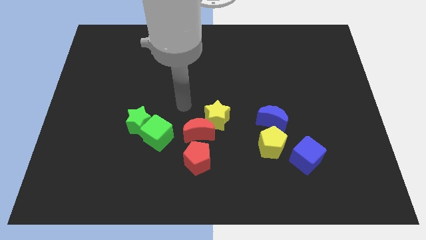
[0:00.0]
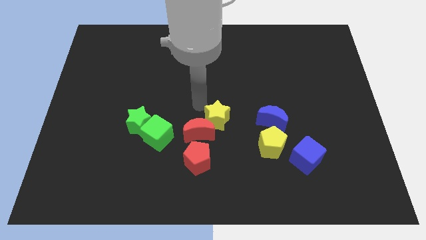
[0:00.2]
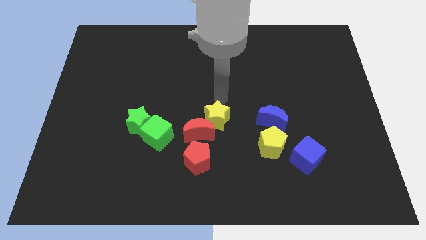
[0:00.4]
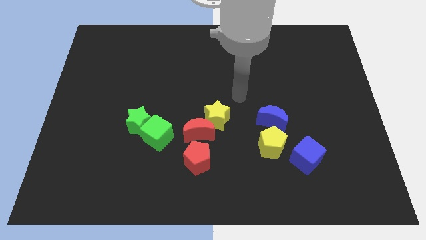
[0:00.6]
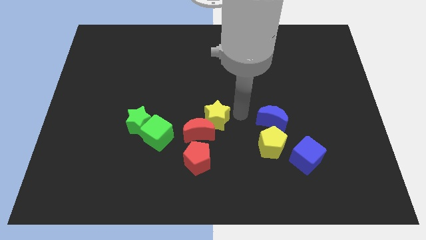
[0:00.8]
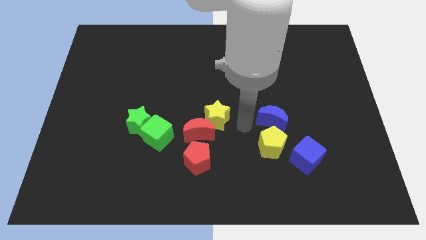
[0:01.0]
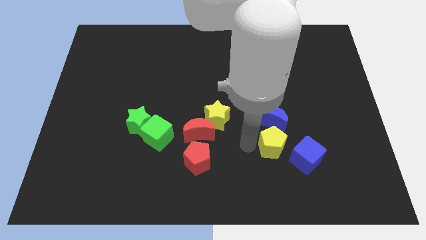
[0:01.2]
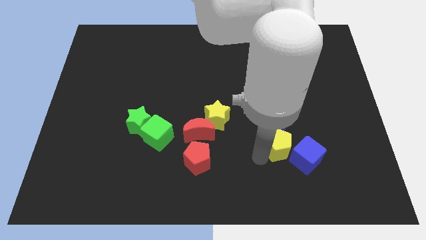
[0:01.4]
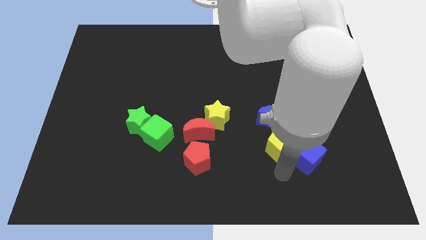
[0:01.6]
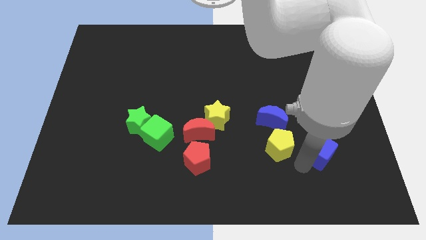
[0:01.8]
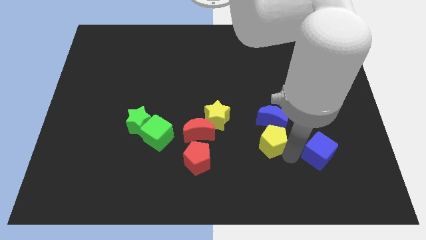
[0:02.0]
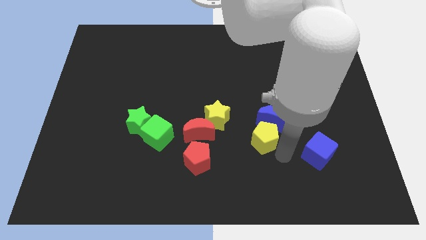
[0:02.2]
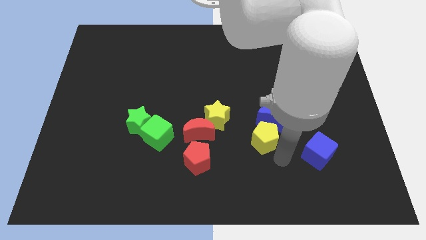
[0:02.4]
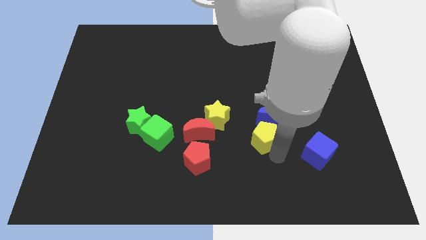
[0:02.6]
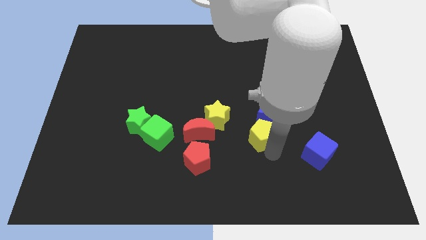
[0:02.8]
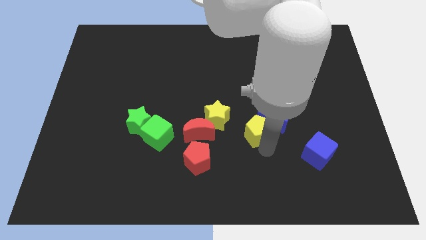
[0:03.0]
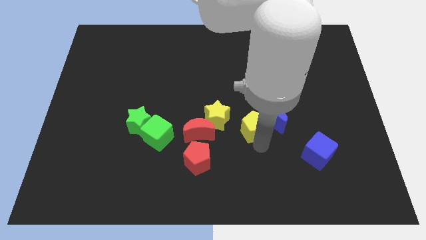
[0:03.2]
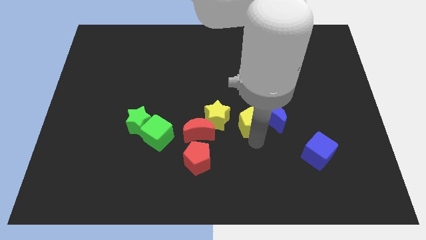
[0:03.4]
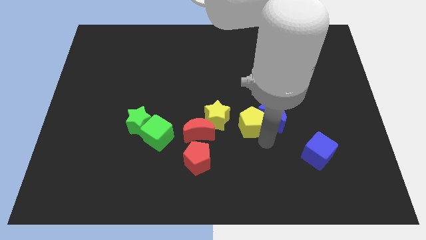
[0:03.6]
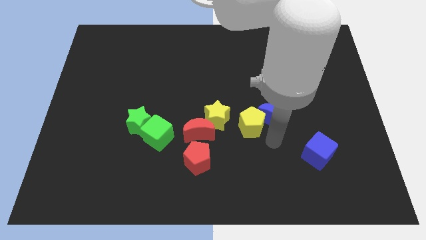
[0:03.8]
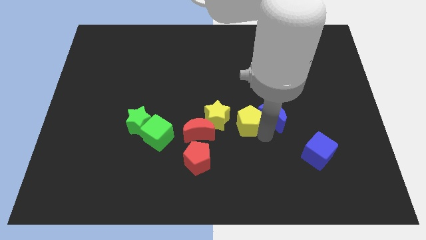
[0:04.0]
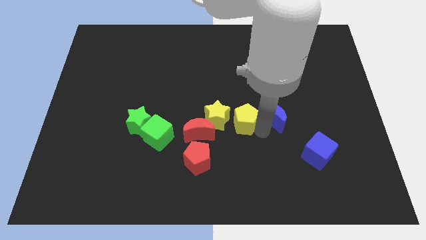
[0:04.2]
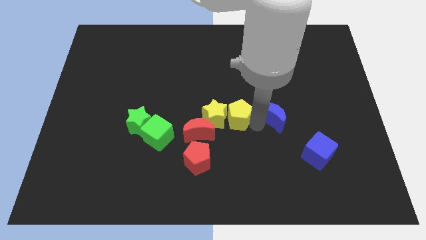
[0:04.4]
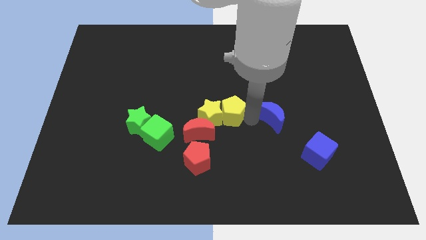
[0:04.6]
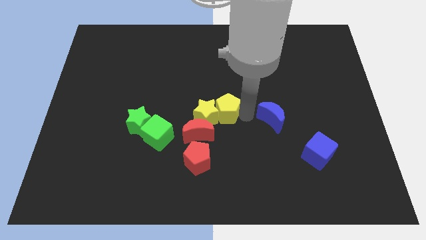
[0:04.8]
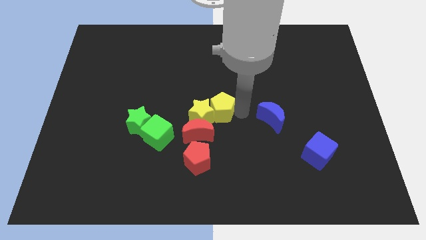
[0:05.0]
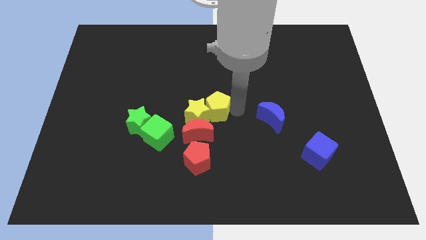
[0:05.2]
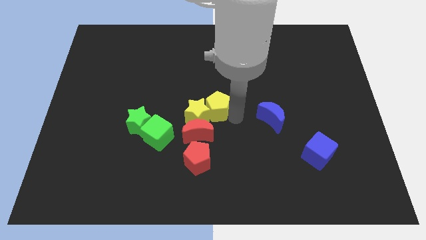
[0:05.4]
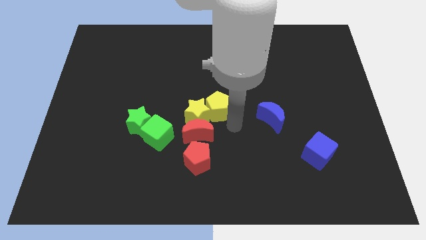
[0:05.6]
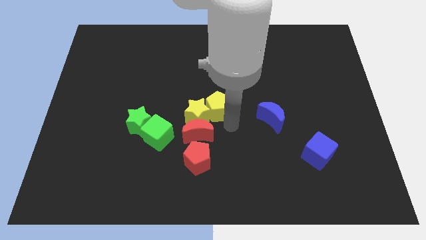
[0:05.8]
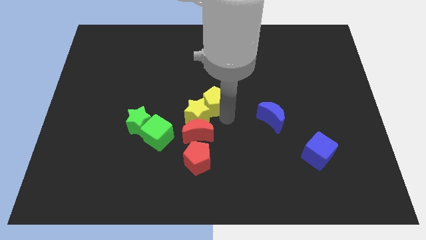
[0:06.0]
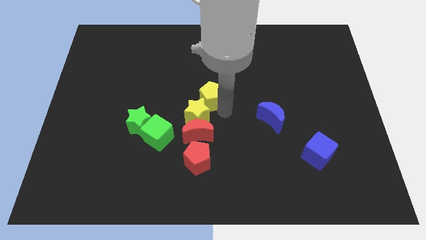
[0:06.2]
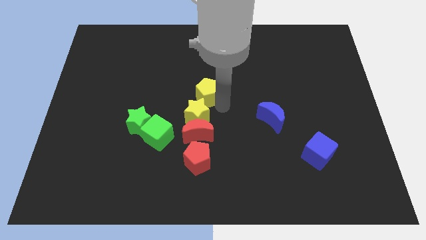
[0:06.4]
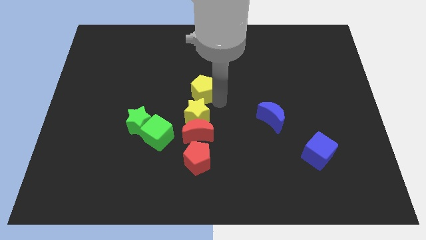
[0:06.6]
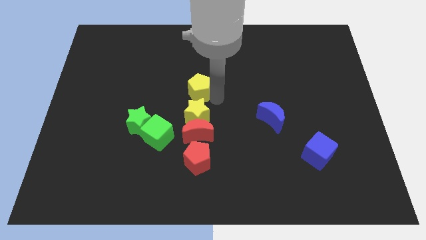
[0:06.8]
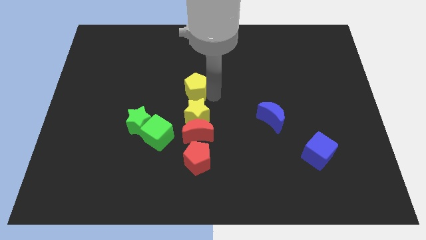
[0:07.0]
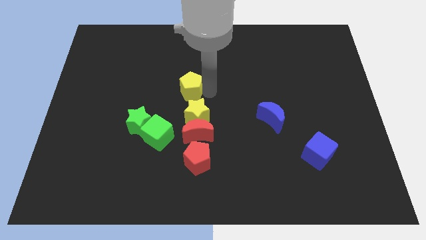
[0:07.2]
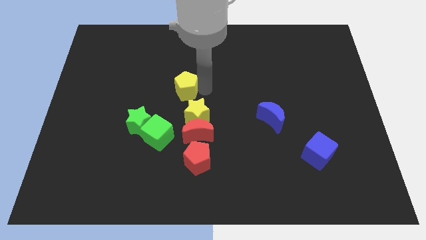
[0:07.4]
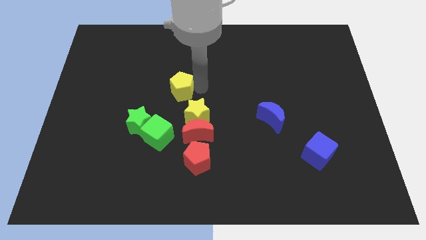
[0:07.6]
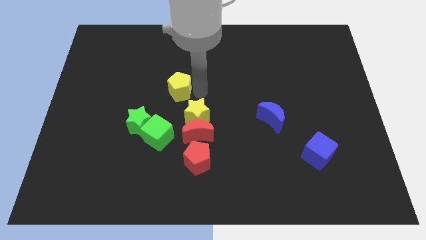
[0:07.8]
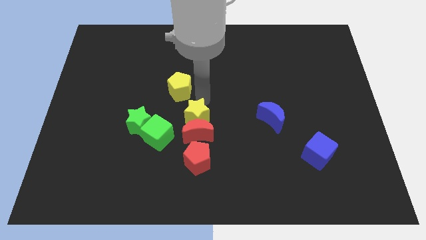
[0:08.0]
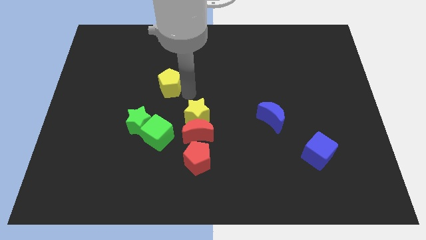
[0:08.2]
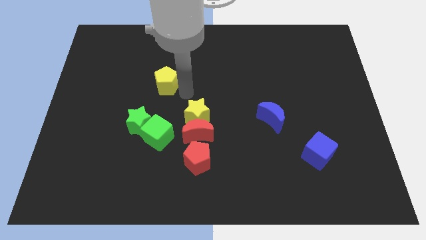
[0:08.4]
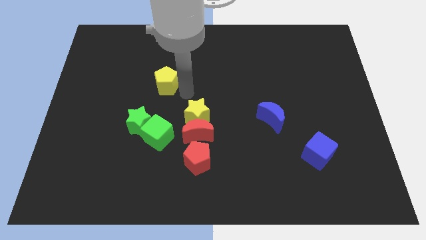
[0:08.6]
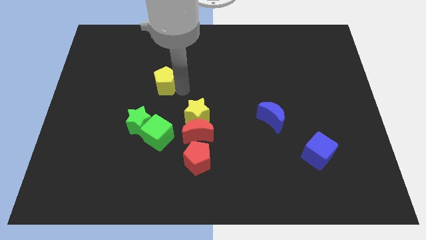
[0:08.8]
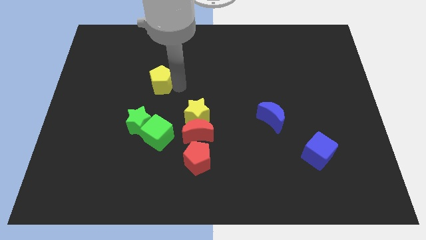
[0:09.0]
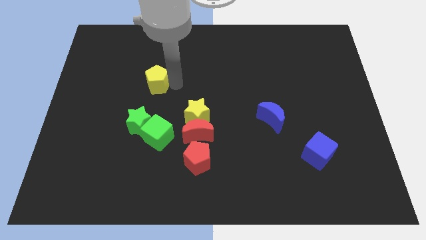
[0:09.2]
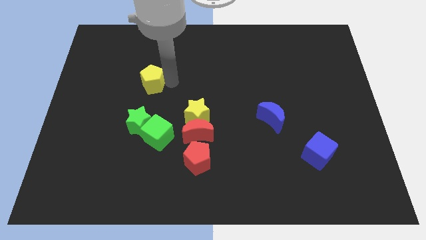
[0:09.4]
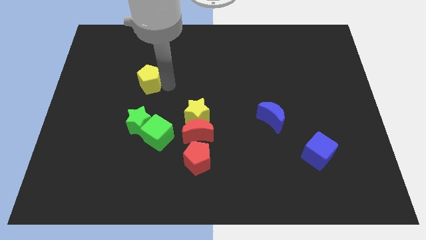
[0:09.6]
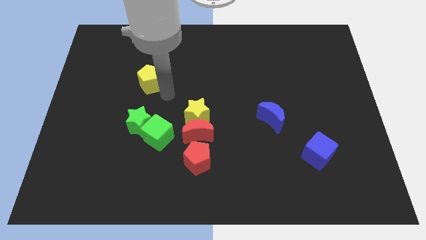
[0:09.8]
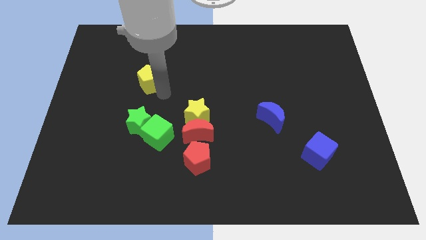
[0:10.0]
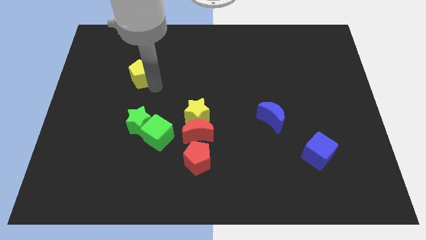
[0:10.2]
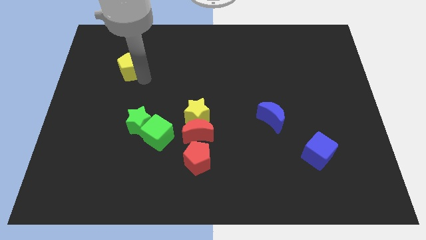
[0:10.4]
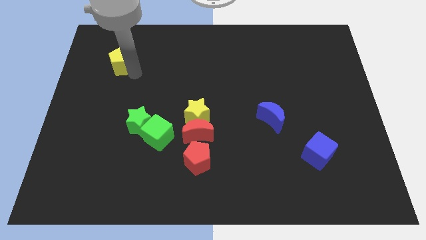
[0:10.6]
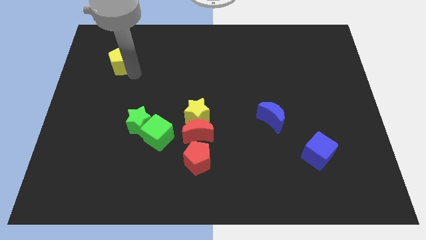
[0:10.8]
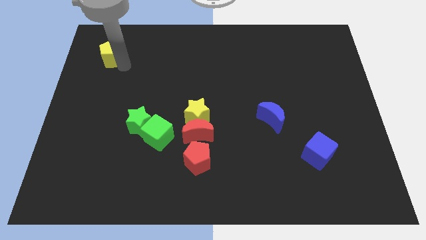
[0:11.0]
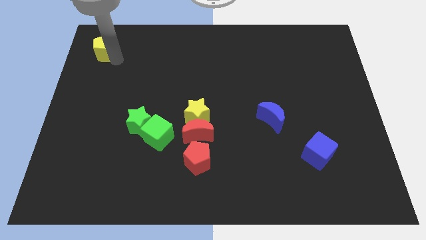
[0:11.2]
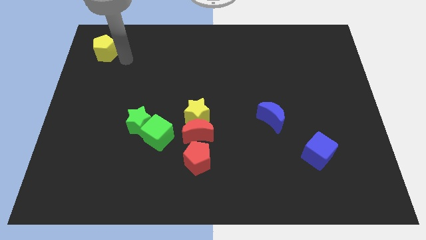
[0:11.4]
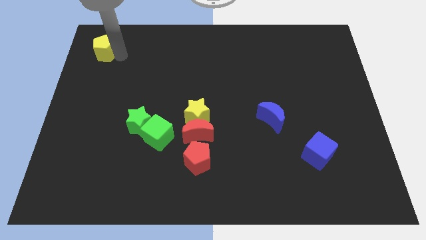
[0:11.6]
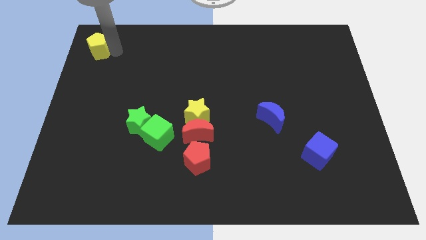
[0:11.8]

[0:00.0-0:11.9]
put the yellow pentagon to the top left of the board
